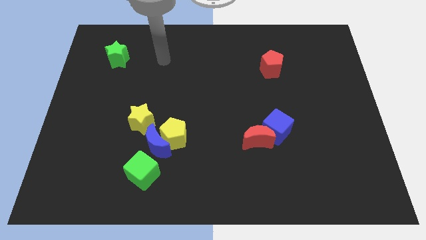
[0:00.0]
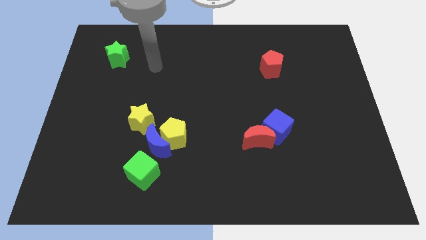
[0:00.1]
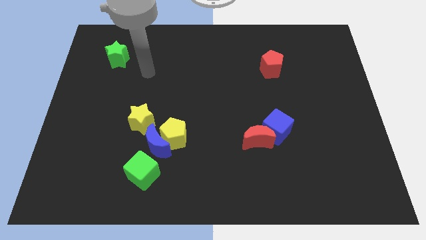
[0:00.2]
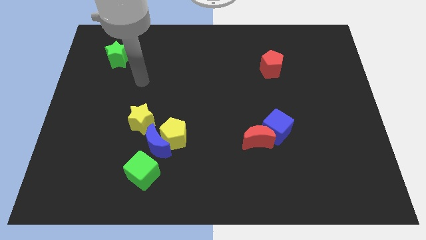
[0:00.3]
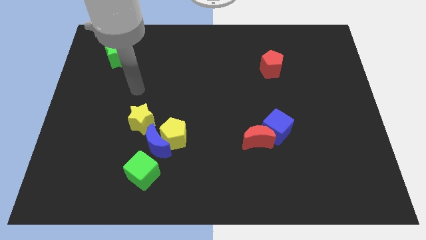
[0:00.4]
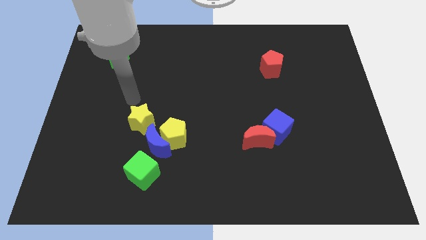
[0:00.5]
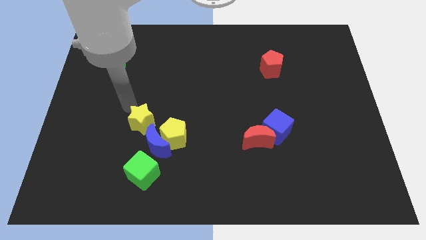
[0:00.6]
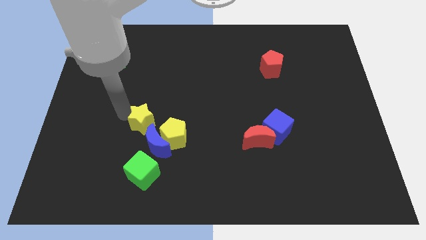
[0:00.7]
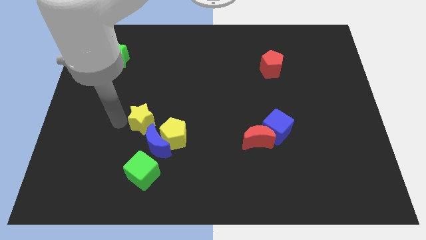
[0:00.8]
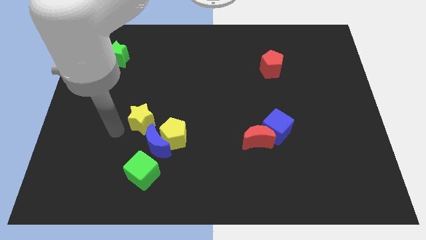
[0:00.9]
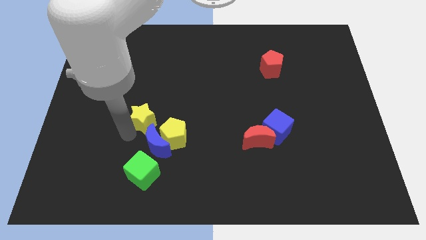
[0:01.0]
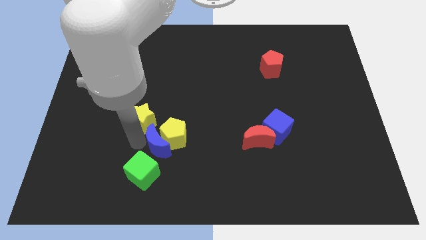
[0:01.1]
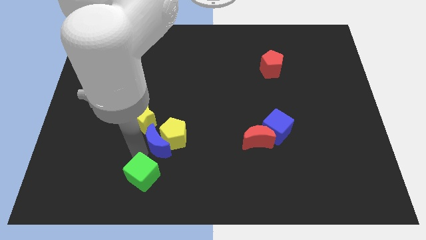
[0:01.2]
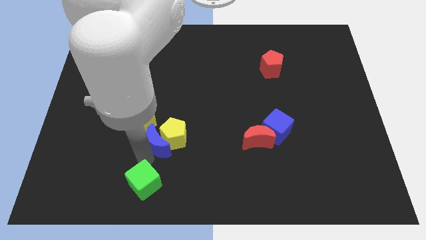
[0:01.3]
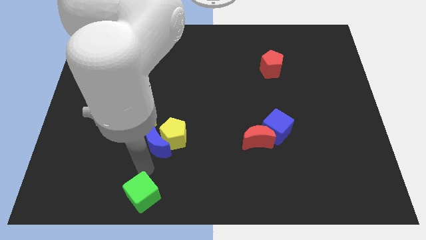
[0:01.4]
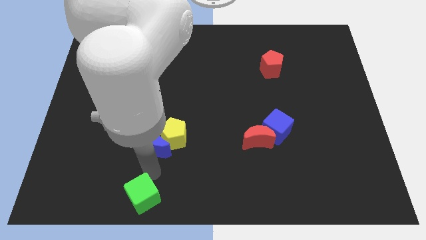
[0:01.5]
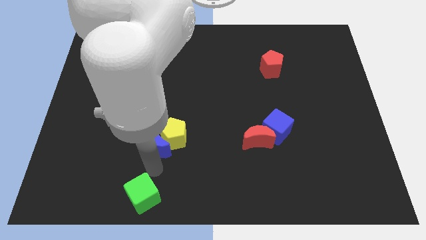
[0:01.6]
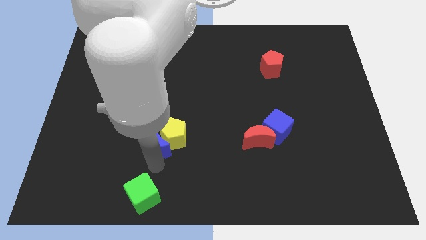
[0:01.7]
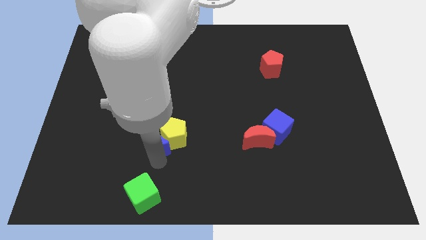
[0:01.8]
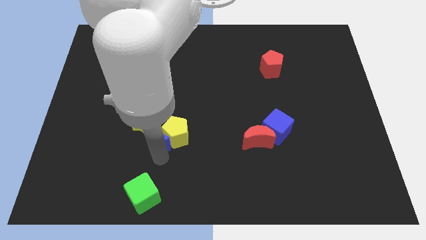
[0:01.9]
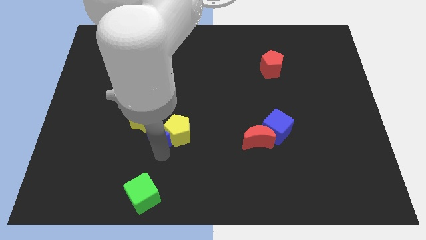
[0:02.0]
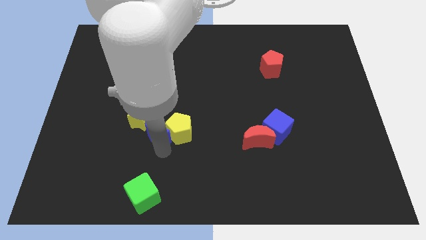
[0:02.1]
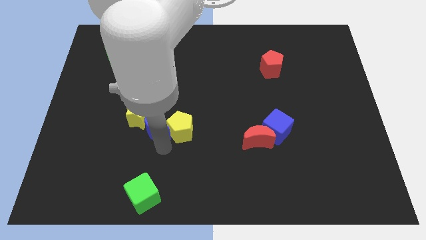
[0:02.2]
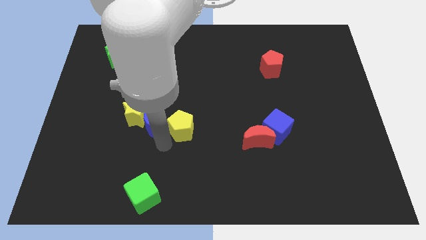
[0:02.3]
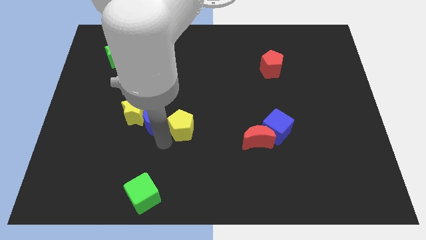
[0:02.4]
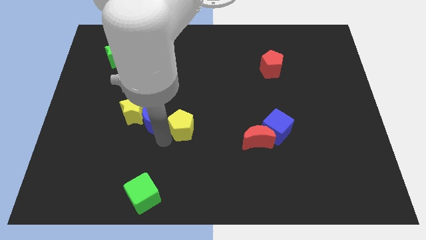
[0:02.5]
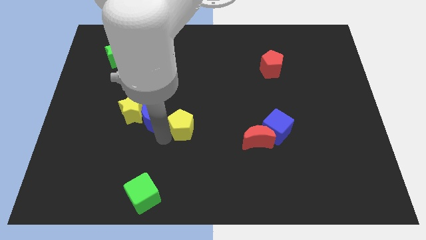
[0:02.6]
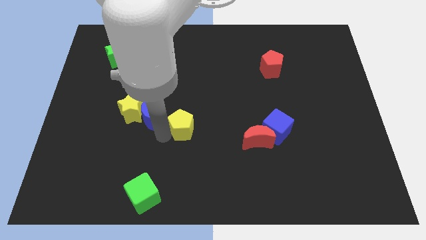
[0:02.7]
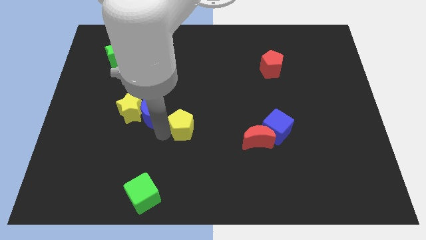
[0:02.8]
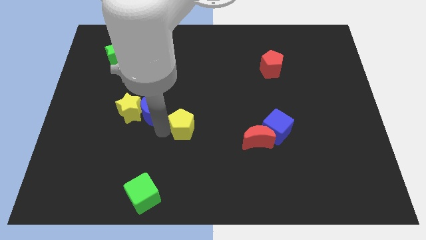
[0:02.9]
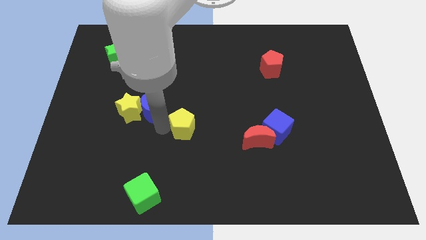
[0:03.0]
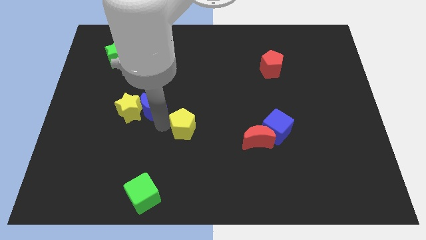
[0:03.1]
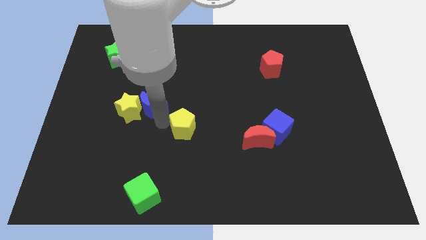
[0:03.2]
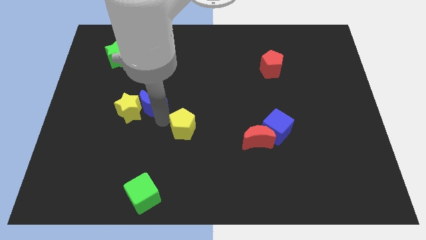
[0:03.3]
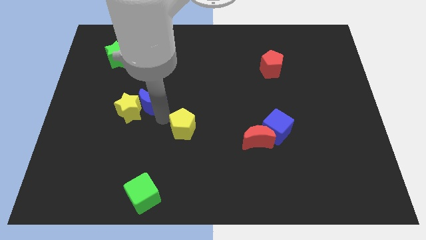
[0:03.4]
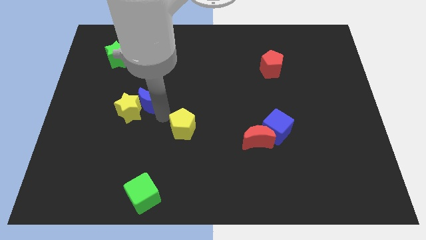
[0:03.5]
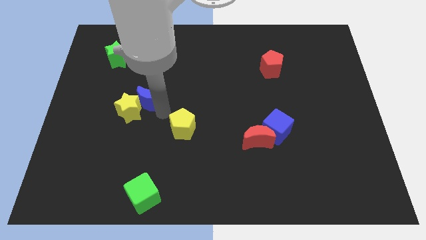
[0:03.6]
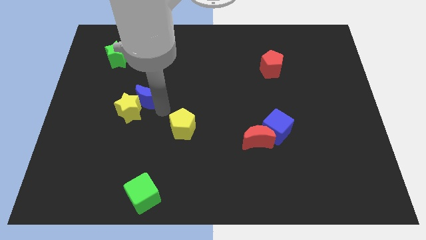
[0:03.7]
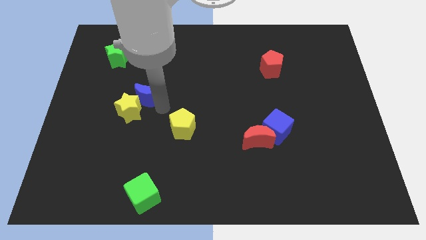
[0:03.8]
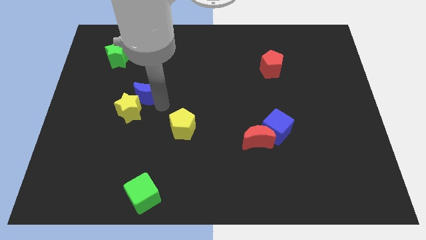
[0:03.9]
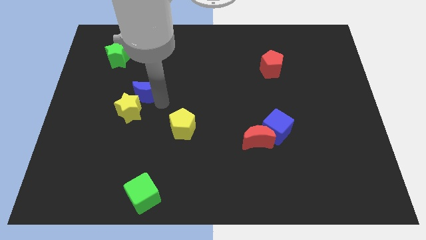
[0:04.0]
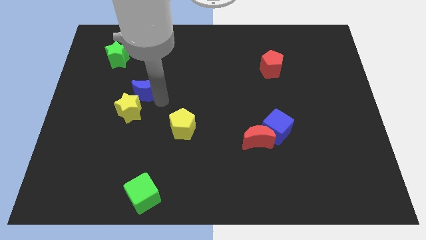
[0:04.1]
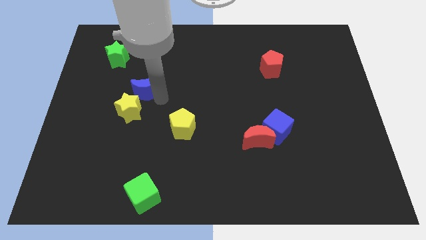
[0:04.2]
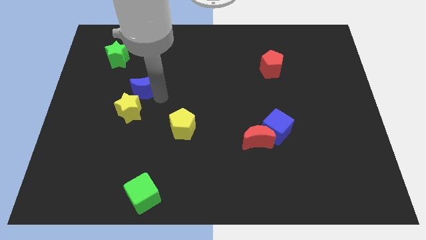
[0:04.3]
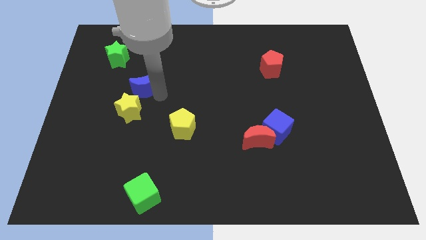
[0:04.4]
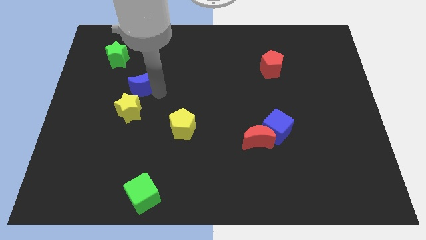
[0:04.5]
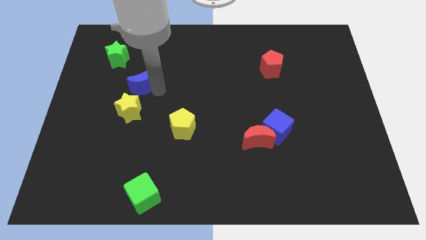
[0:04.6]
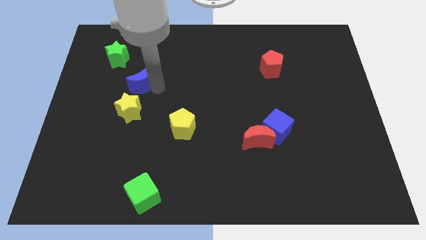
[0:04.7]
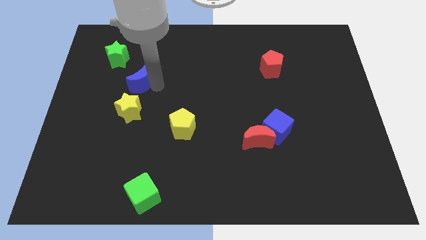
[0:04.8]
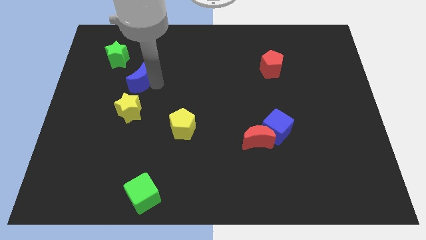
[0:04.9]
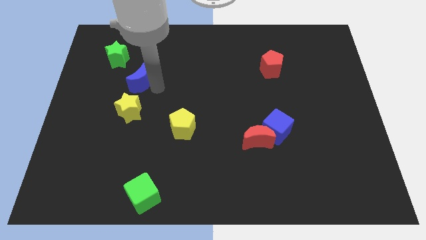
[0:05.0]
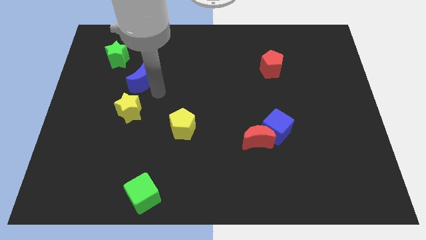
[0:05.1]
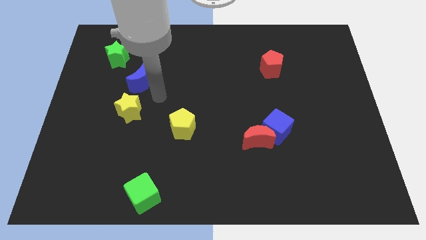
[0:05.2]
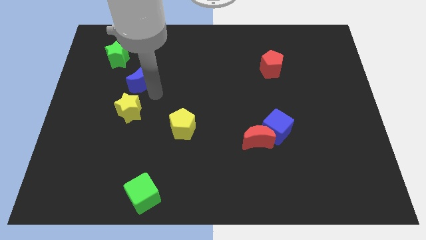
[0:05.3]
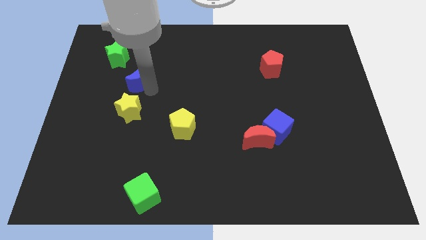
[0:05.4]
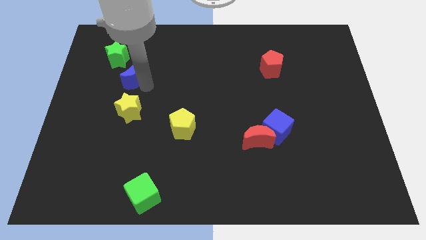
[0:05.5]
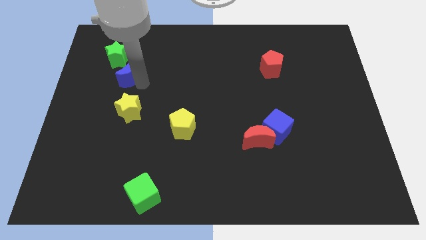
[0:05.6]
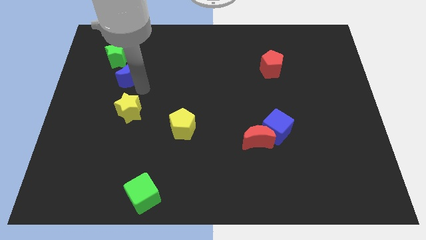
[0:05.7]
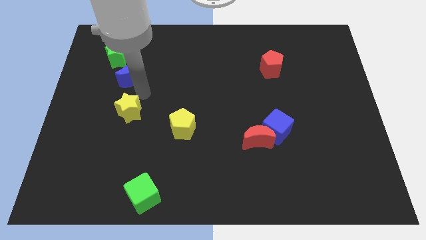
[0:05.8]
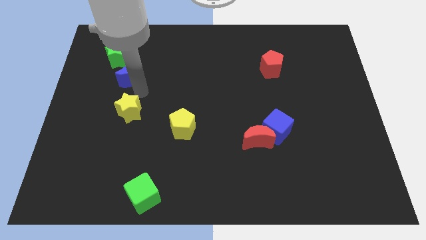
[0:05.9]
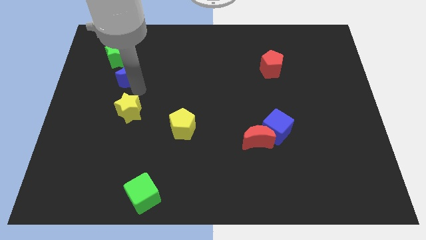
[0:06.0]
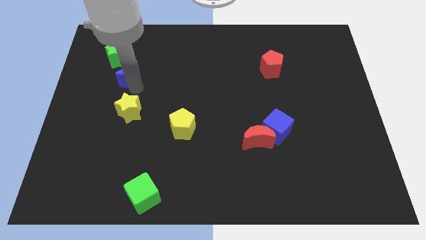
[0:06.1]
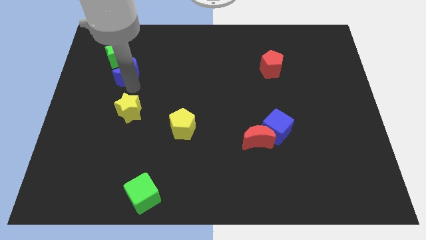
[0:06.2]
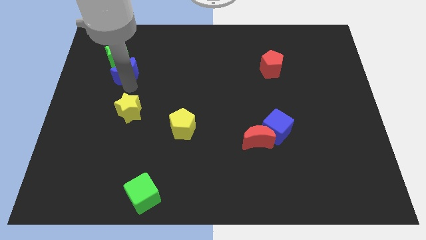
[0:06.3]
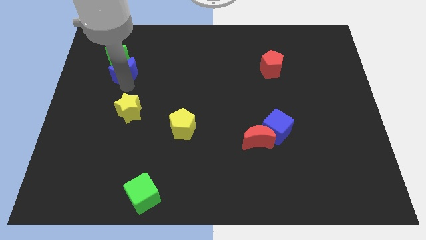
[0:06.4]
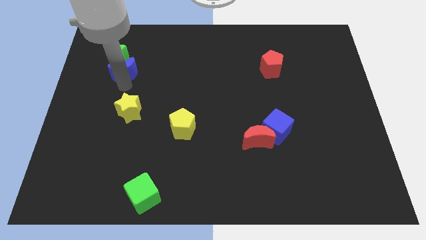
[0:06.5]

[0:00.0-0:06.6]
push the blue moon towards the green star

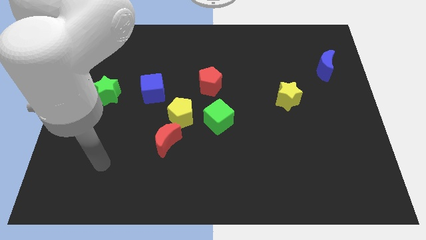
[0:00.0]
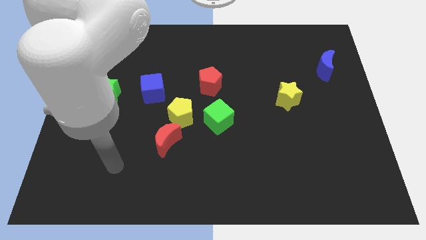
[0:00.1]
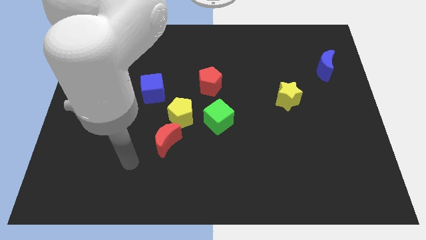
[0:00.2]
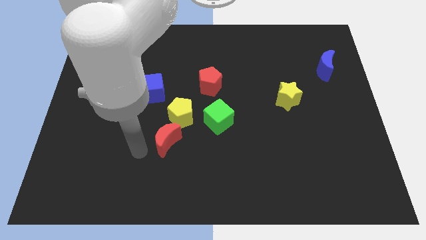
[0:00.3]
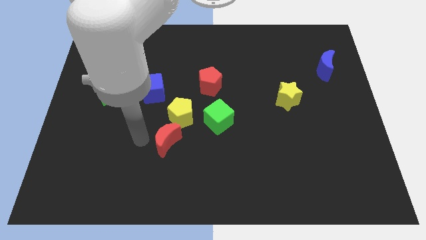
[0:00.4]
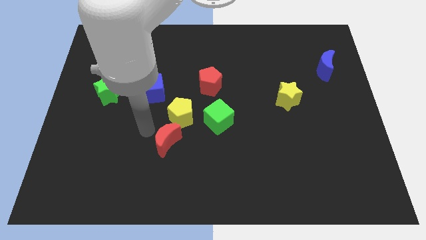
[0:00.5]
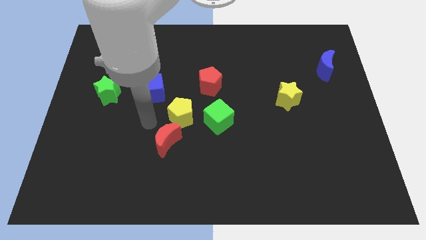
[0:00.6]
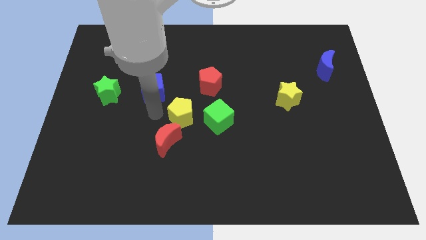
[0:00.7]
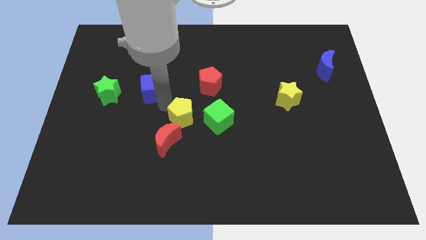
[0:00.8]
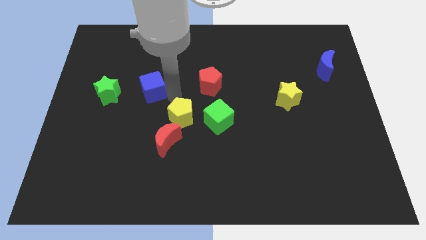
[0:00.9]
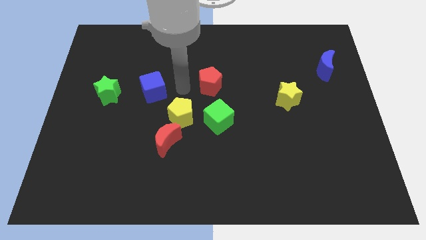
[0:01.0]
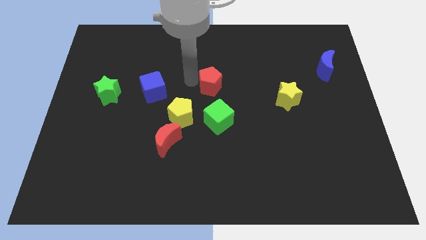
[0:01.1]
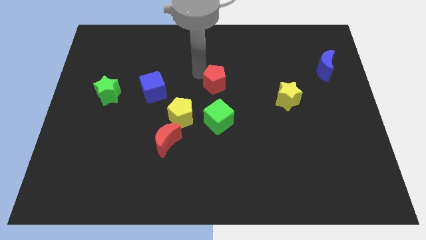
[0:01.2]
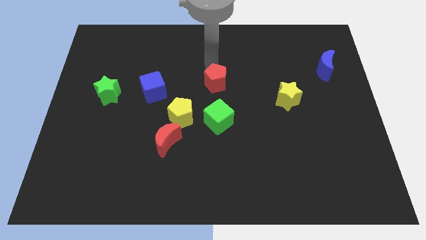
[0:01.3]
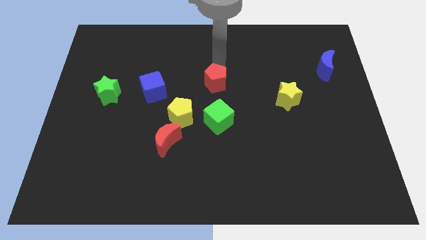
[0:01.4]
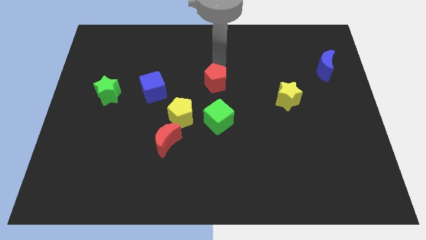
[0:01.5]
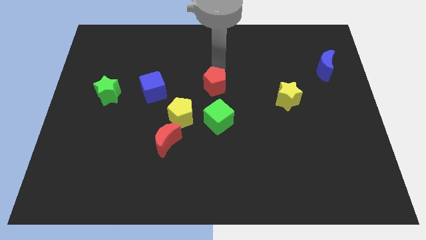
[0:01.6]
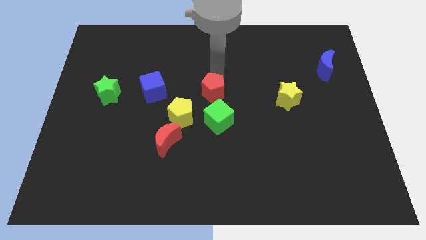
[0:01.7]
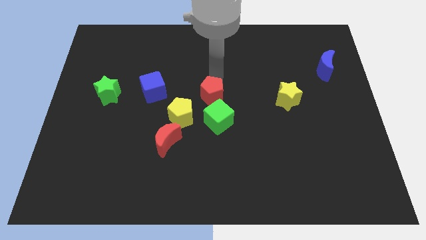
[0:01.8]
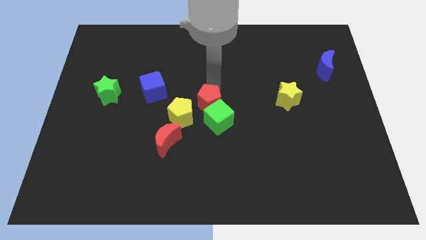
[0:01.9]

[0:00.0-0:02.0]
move the red pentagon next to the green cube
